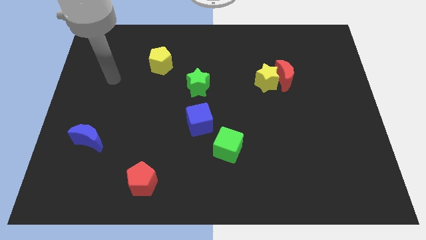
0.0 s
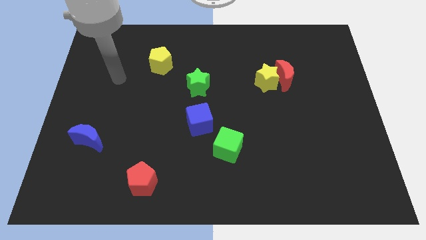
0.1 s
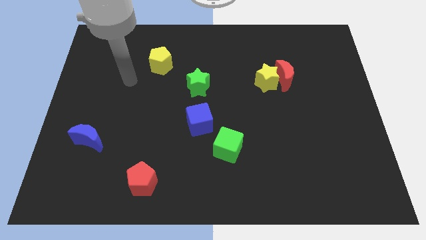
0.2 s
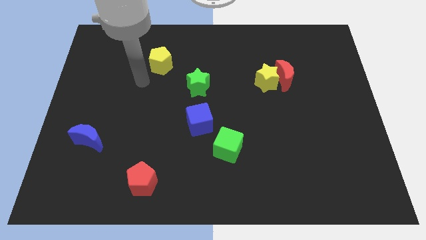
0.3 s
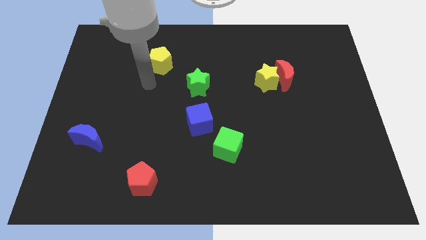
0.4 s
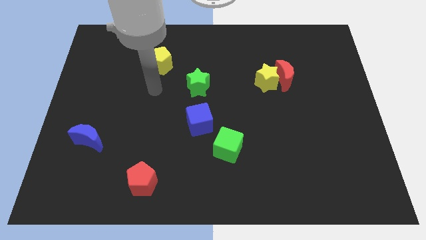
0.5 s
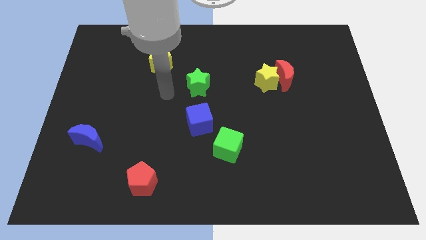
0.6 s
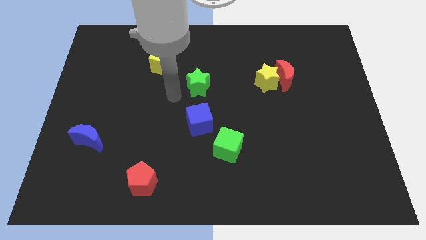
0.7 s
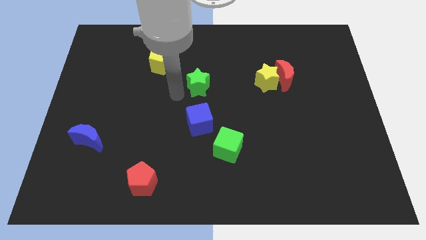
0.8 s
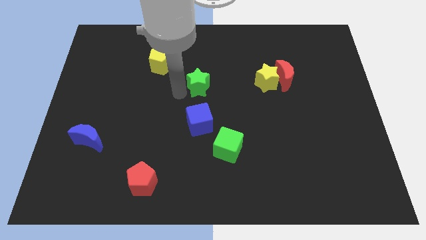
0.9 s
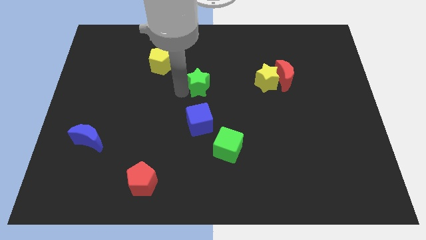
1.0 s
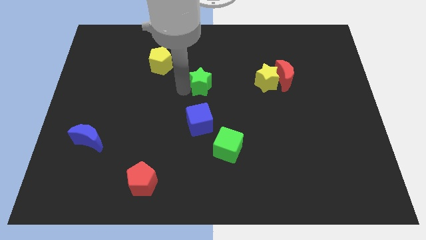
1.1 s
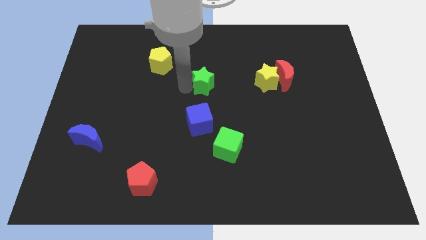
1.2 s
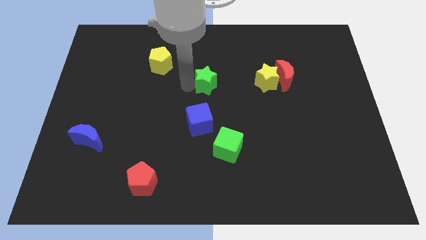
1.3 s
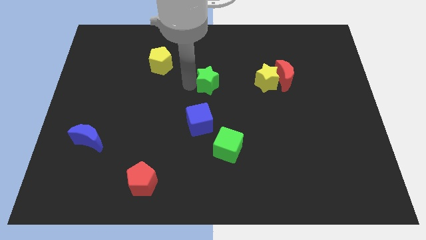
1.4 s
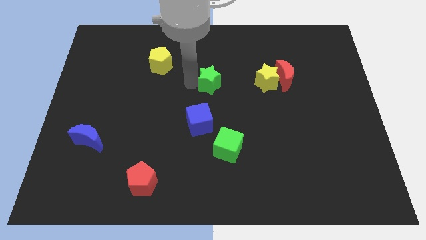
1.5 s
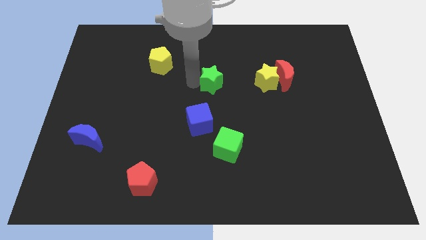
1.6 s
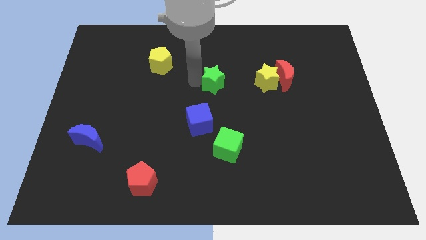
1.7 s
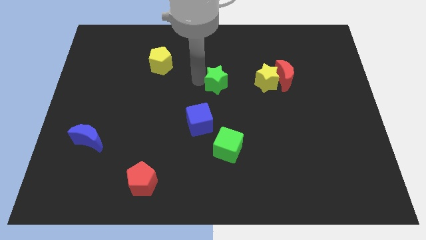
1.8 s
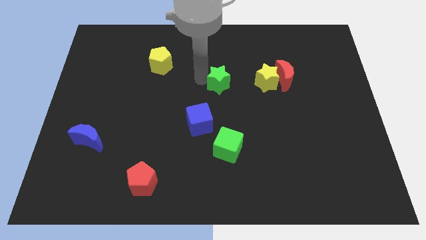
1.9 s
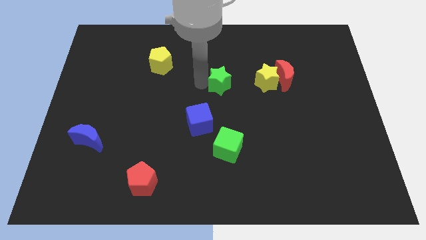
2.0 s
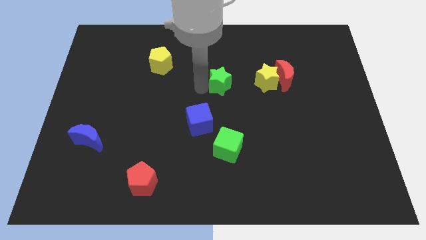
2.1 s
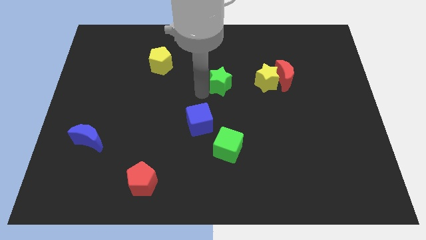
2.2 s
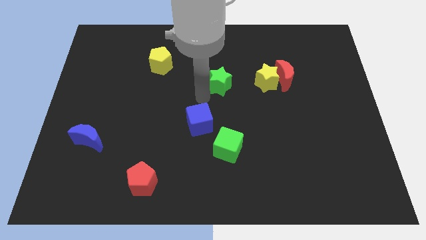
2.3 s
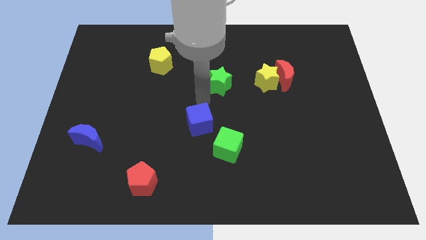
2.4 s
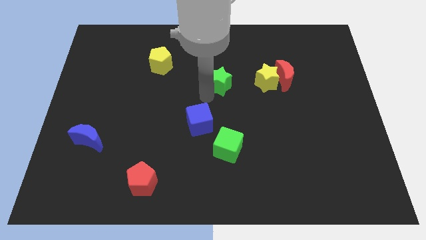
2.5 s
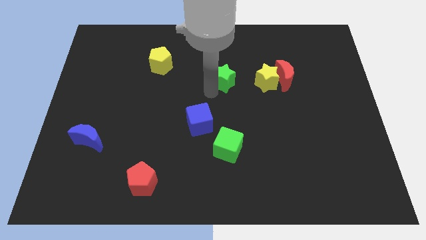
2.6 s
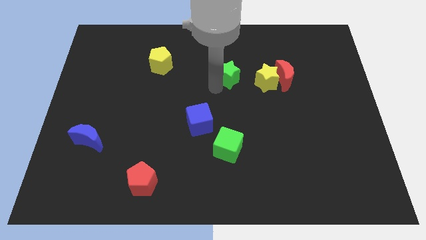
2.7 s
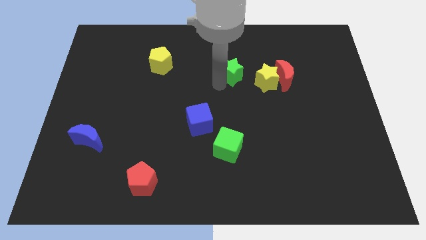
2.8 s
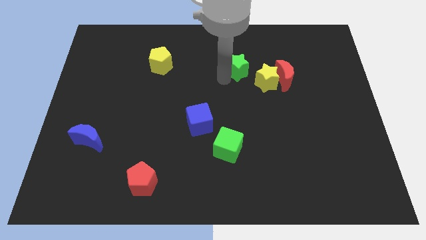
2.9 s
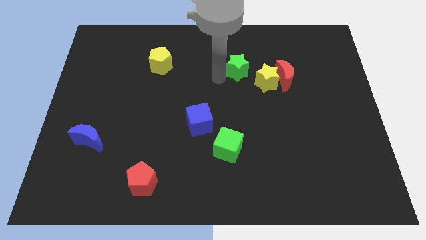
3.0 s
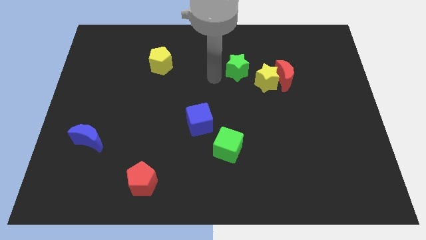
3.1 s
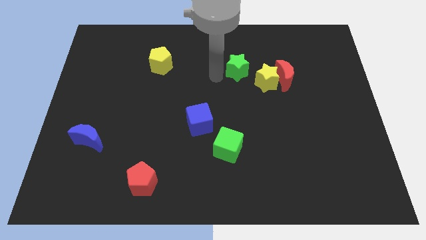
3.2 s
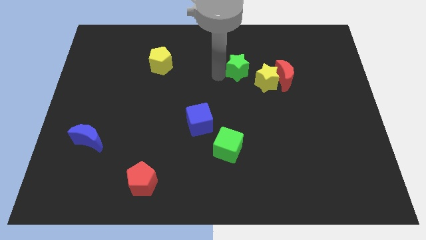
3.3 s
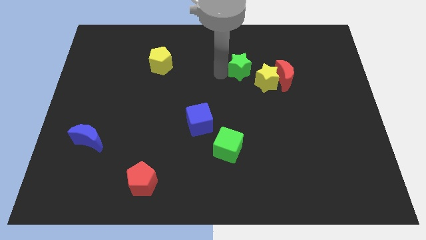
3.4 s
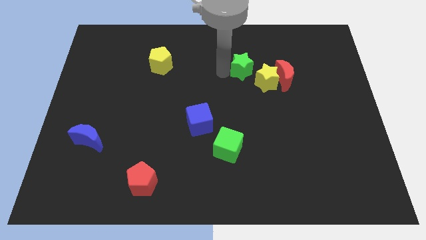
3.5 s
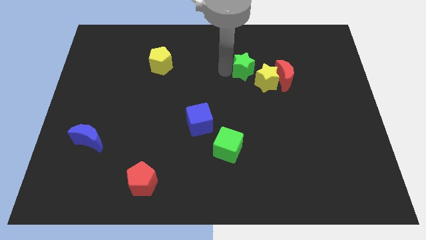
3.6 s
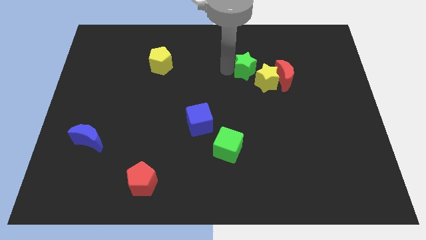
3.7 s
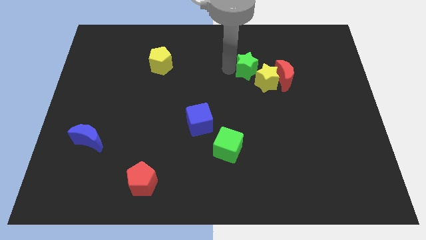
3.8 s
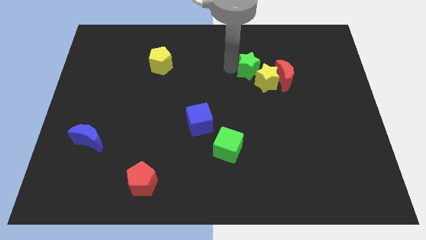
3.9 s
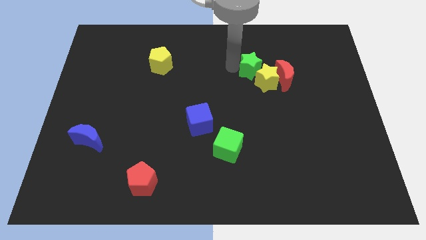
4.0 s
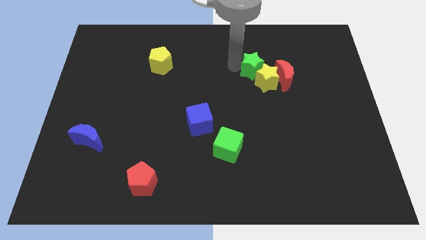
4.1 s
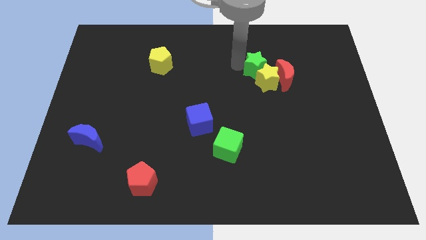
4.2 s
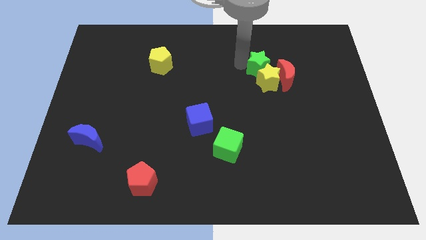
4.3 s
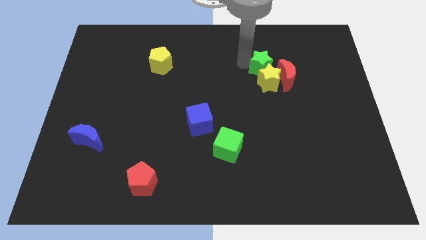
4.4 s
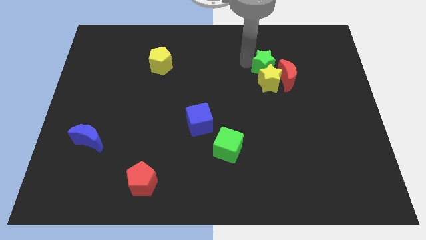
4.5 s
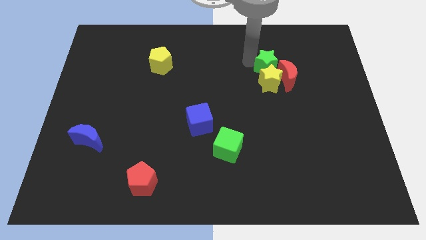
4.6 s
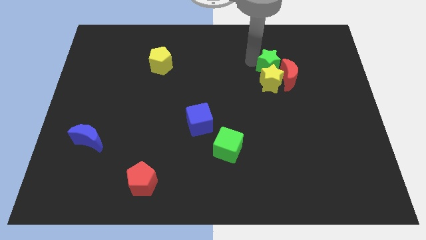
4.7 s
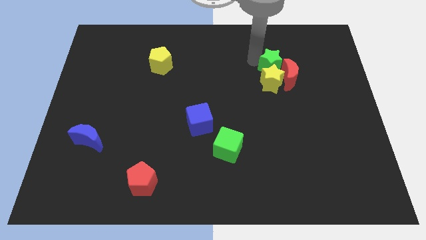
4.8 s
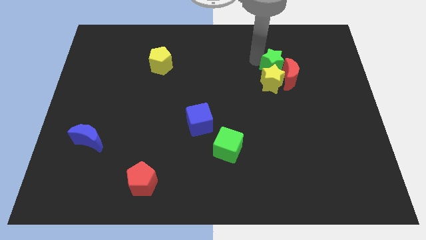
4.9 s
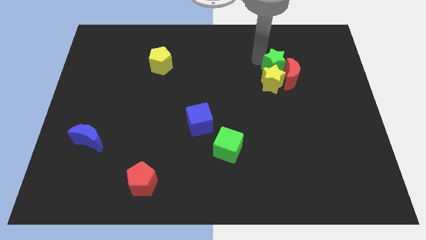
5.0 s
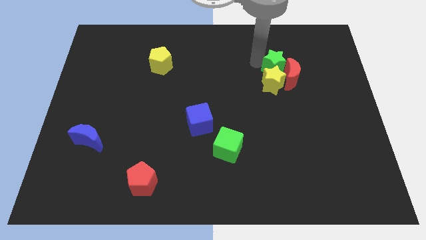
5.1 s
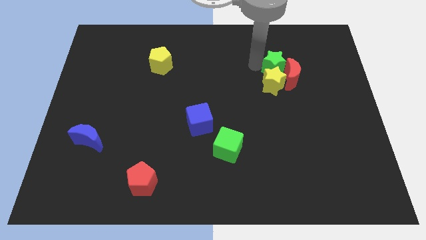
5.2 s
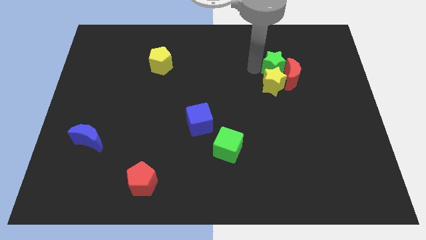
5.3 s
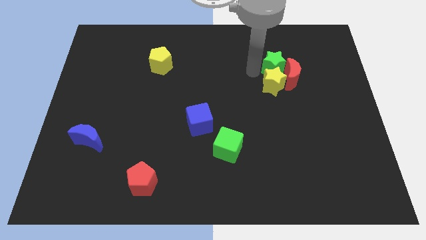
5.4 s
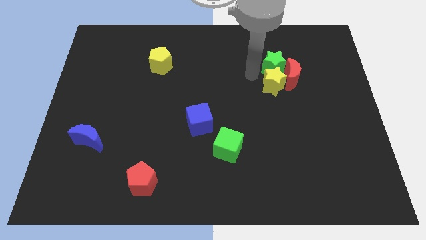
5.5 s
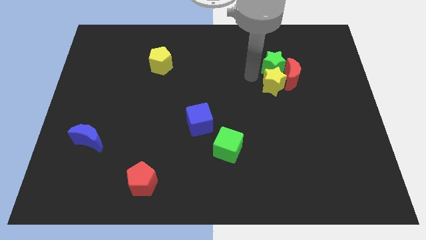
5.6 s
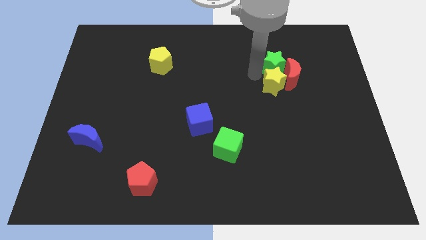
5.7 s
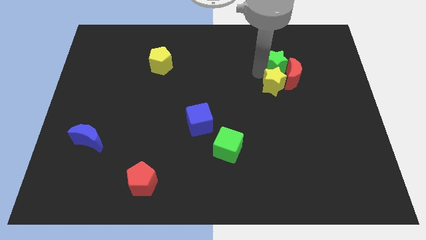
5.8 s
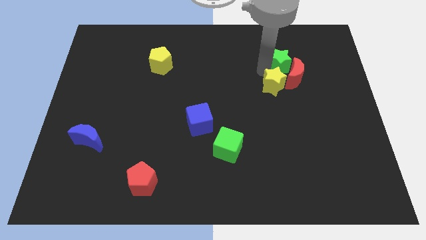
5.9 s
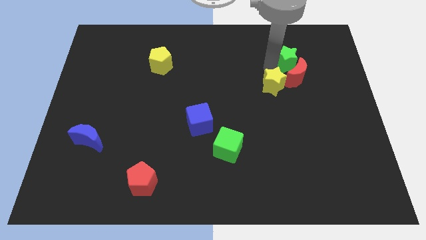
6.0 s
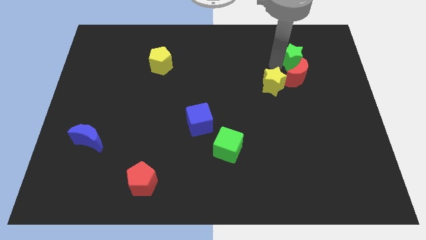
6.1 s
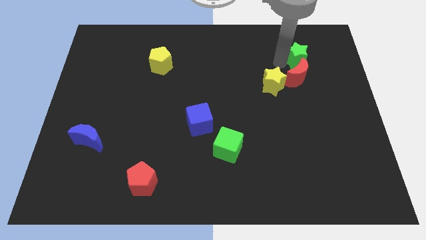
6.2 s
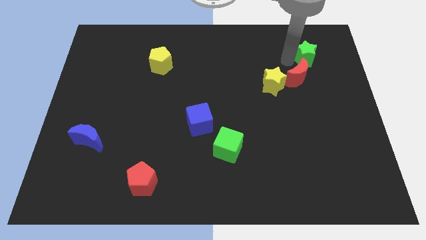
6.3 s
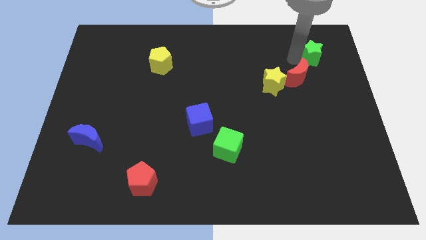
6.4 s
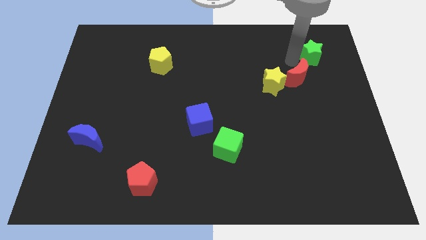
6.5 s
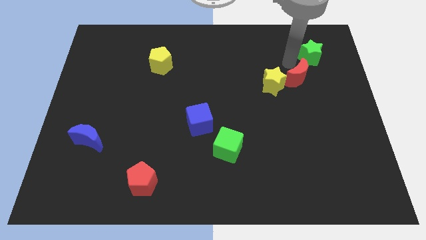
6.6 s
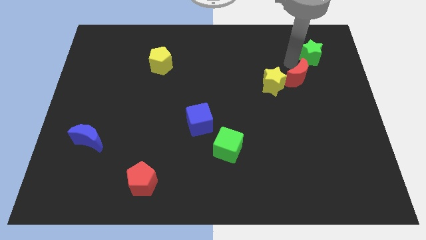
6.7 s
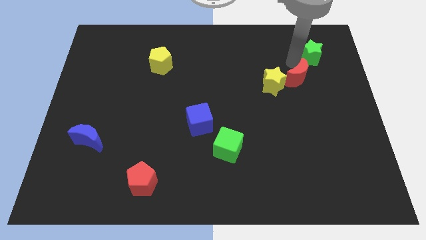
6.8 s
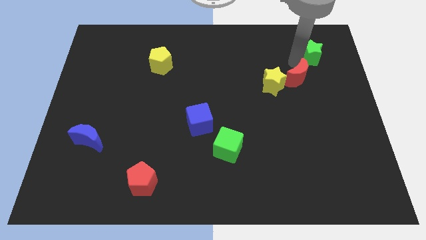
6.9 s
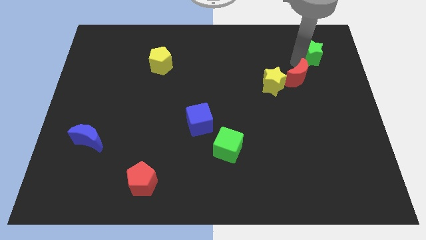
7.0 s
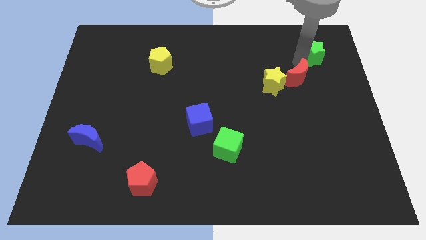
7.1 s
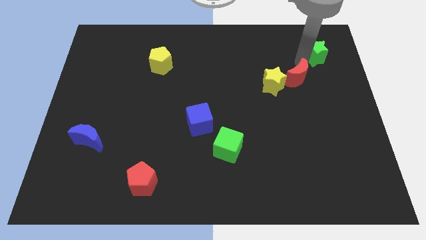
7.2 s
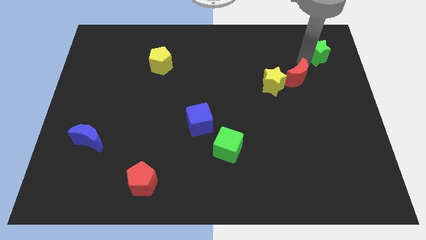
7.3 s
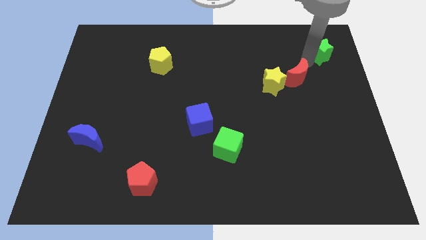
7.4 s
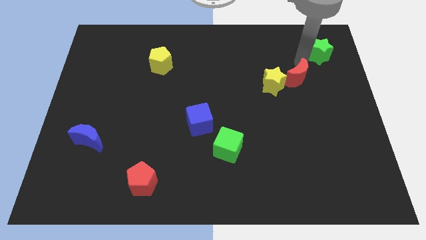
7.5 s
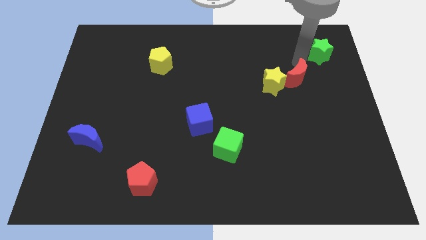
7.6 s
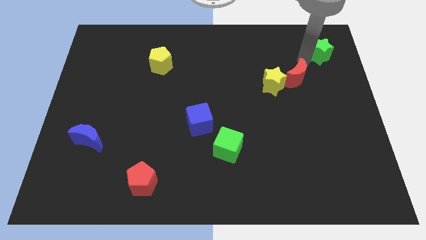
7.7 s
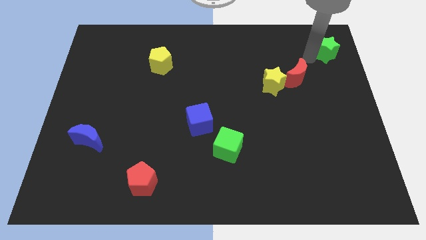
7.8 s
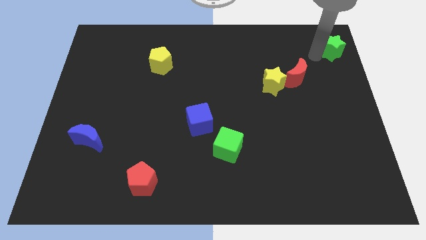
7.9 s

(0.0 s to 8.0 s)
slide the green star to the upper right corner
